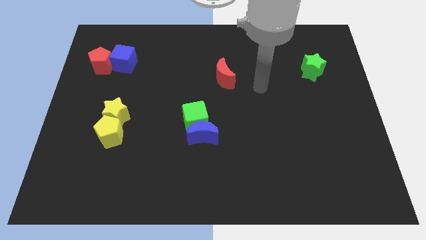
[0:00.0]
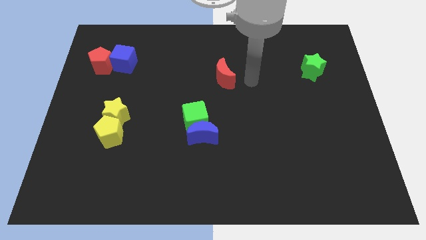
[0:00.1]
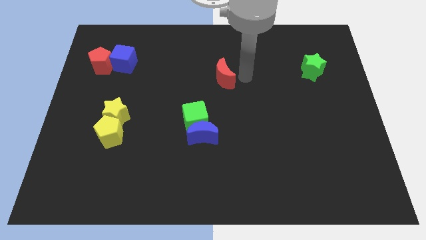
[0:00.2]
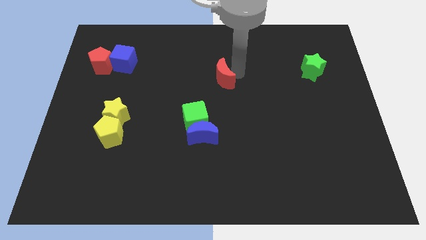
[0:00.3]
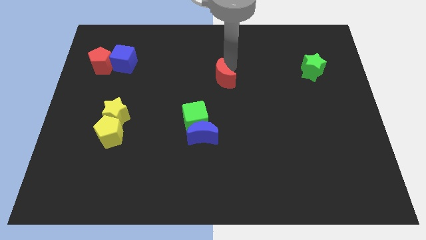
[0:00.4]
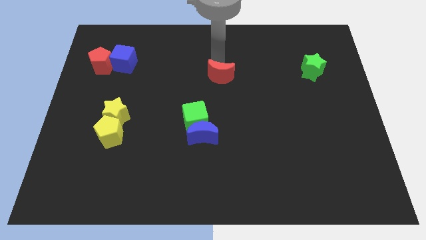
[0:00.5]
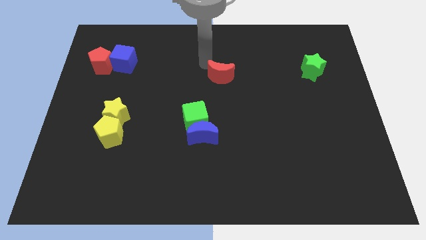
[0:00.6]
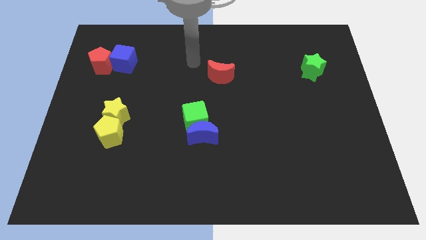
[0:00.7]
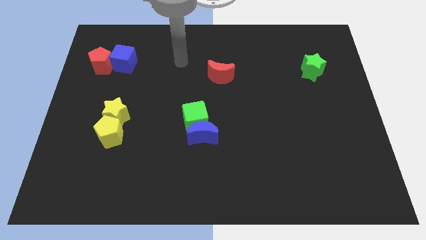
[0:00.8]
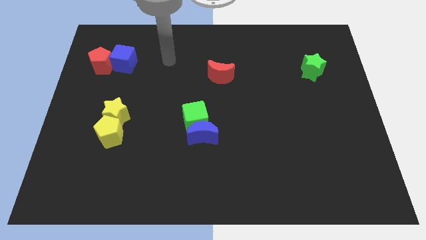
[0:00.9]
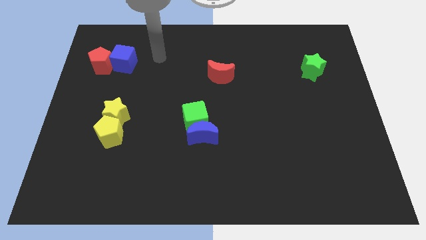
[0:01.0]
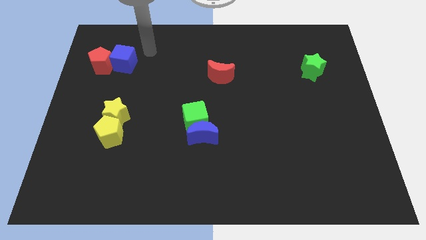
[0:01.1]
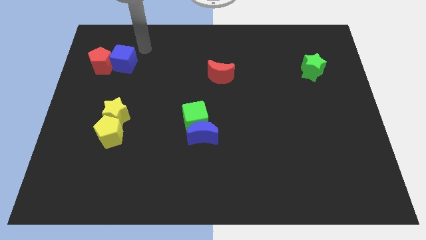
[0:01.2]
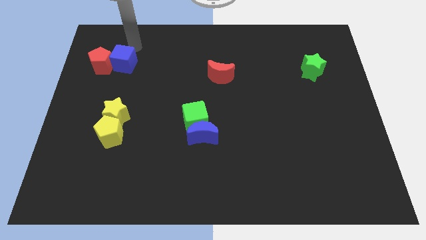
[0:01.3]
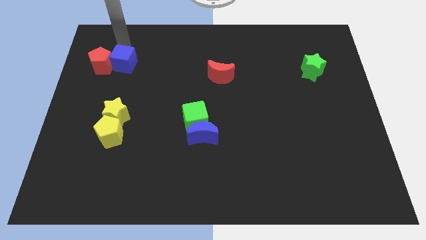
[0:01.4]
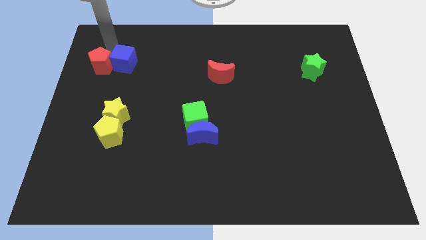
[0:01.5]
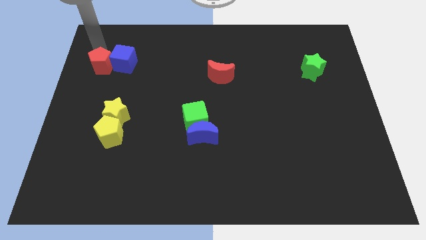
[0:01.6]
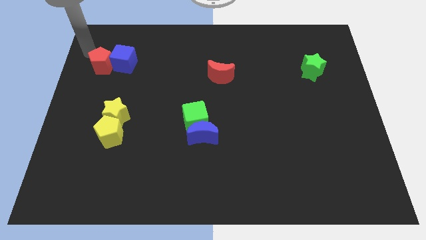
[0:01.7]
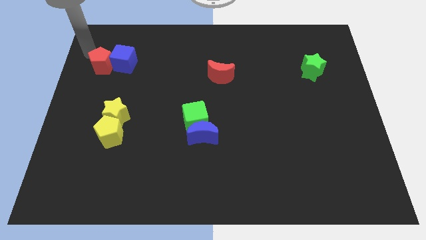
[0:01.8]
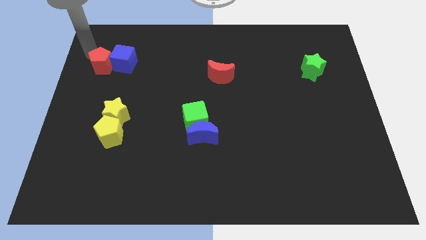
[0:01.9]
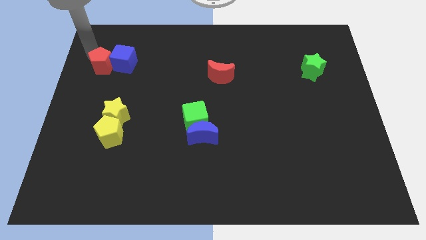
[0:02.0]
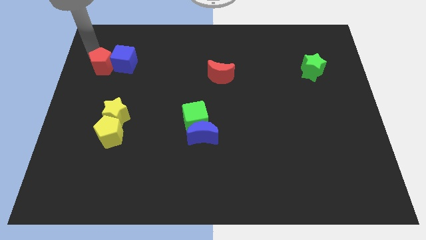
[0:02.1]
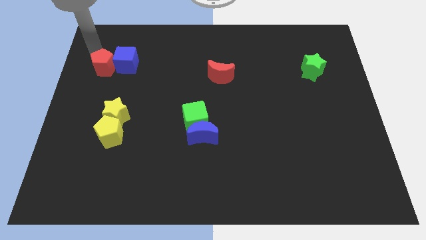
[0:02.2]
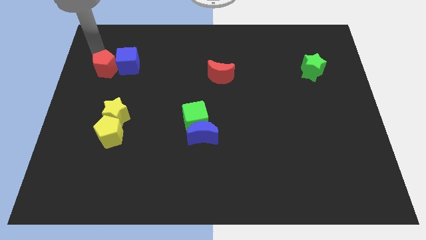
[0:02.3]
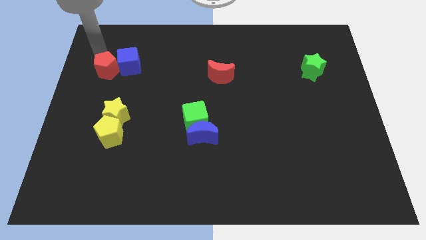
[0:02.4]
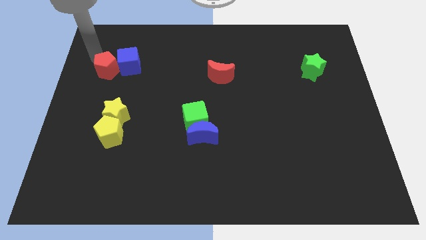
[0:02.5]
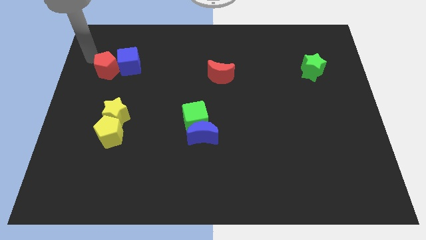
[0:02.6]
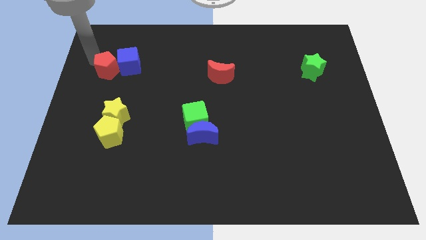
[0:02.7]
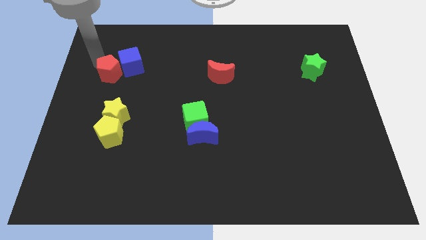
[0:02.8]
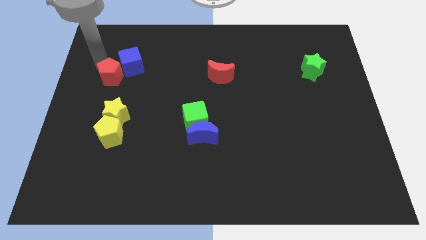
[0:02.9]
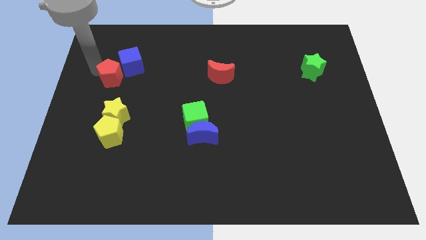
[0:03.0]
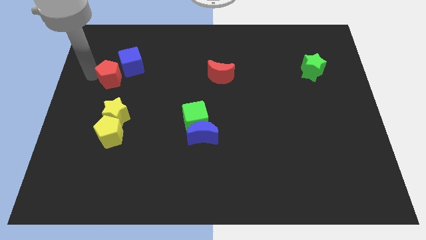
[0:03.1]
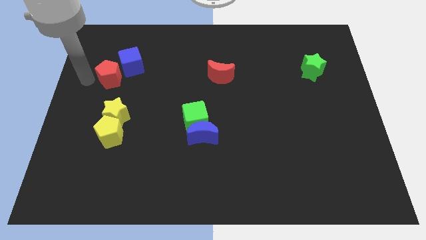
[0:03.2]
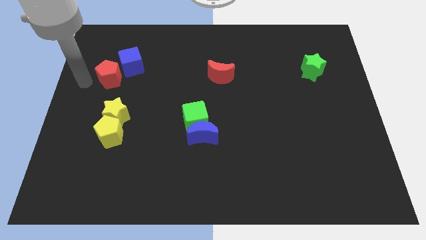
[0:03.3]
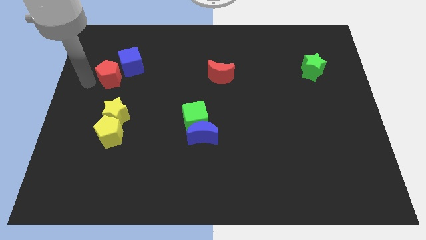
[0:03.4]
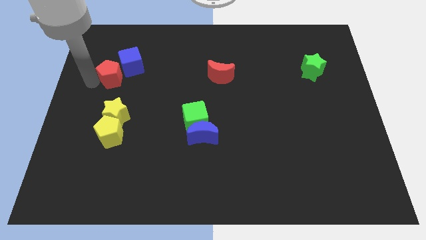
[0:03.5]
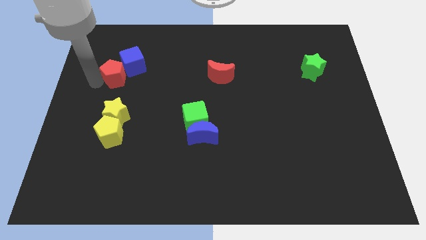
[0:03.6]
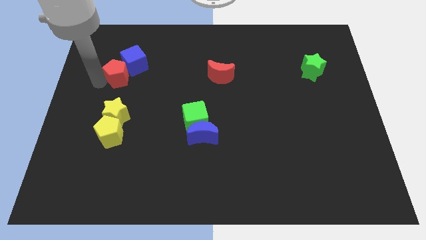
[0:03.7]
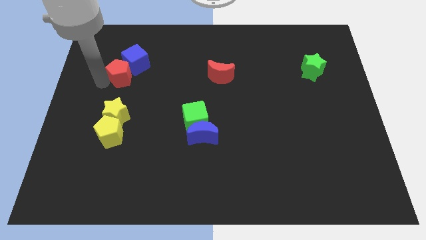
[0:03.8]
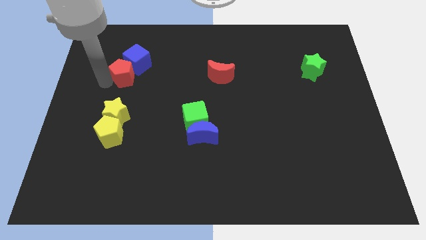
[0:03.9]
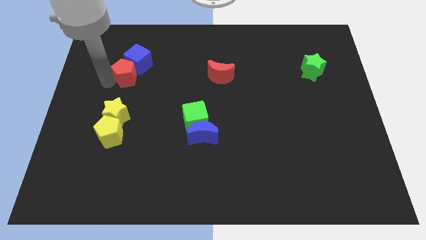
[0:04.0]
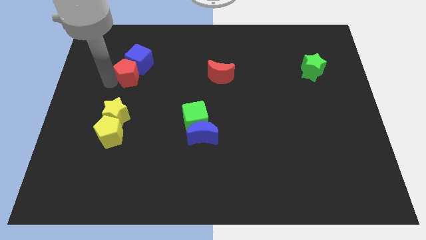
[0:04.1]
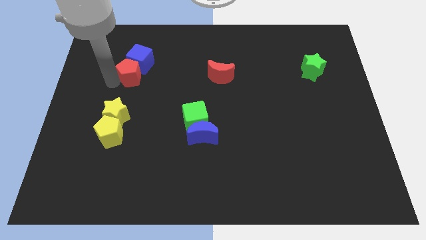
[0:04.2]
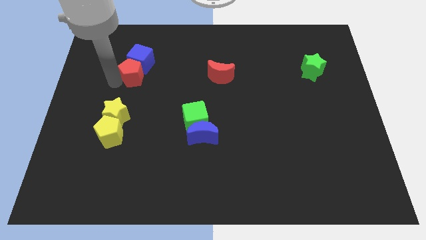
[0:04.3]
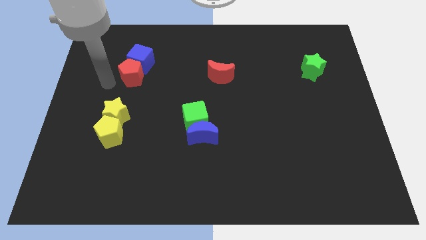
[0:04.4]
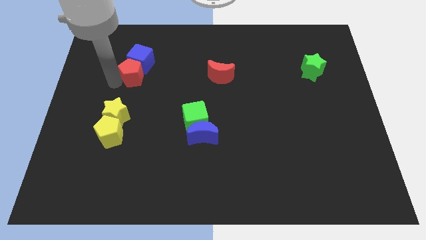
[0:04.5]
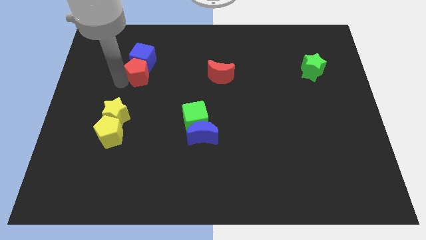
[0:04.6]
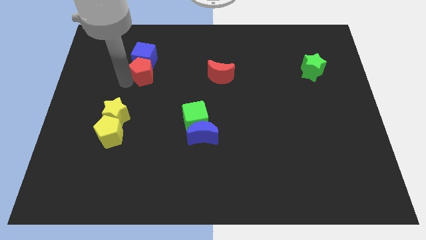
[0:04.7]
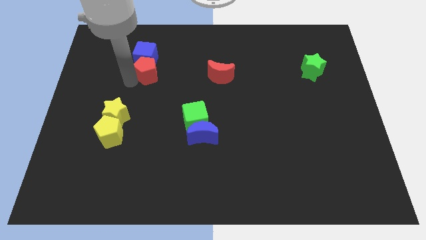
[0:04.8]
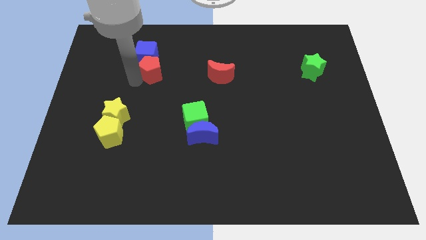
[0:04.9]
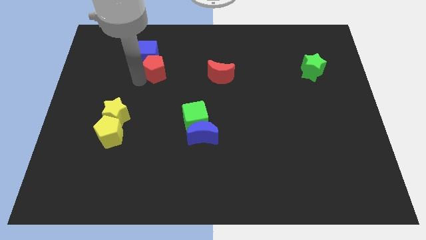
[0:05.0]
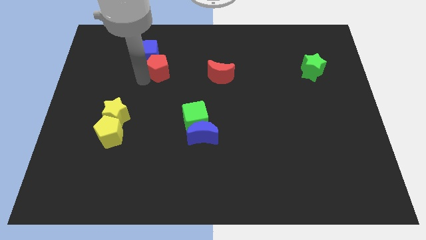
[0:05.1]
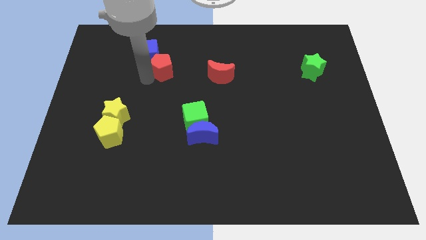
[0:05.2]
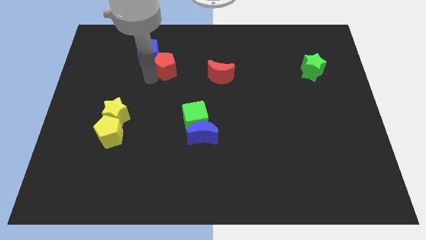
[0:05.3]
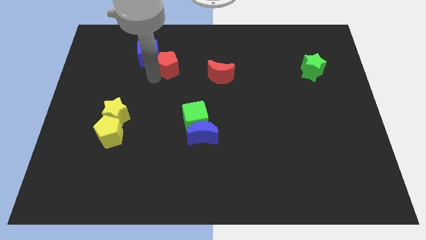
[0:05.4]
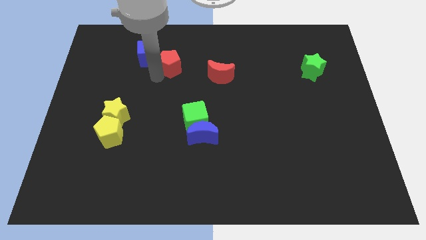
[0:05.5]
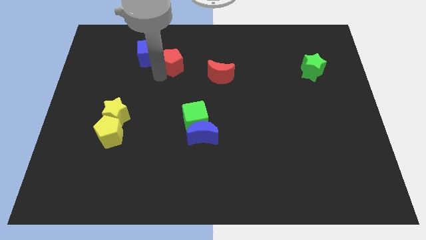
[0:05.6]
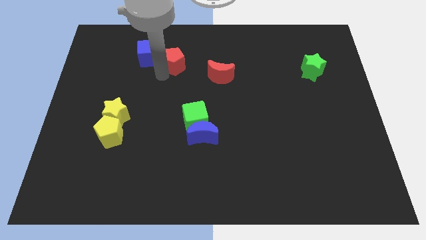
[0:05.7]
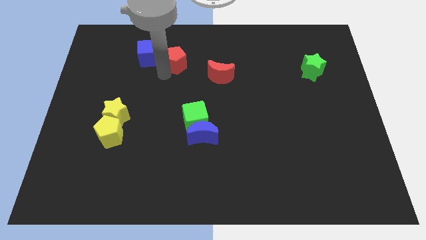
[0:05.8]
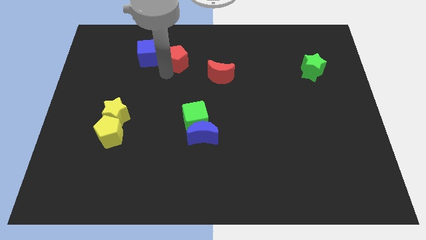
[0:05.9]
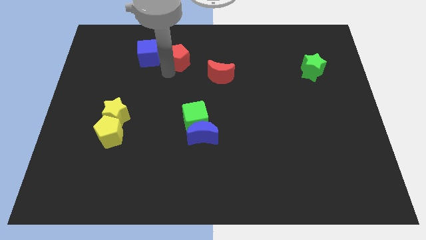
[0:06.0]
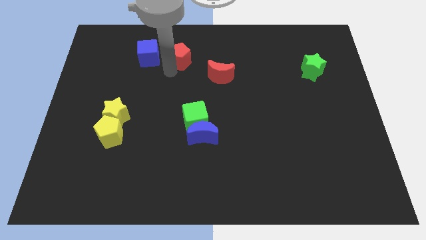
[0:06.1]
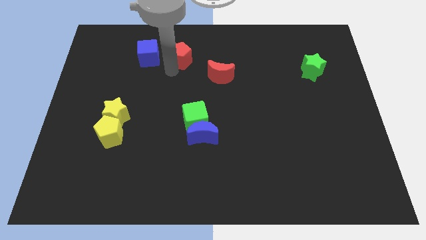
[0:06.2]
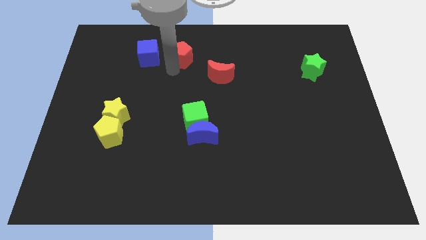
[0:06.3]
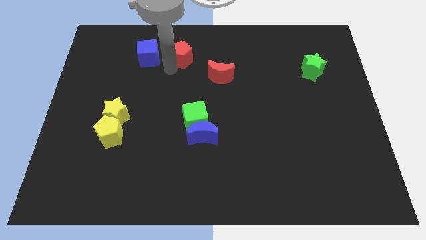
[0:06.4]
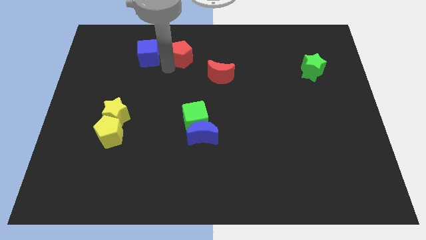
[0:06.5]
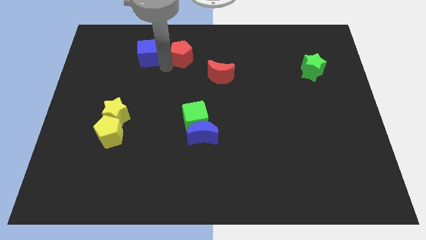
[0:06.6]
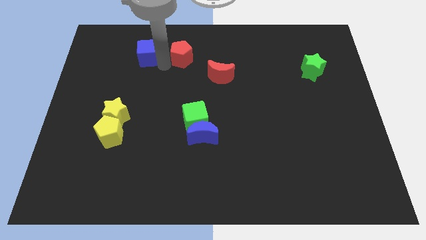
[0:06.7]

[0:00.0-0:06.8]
put the red pentagon just right of the blue cube
